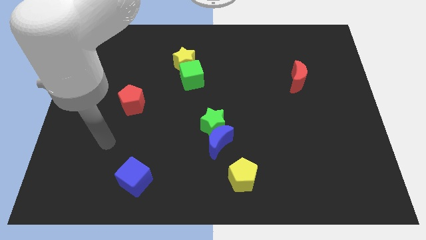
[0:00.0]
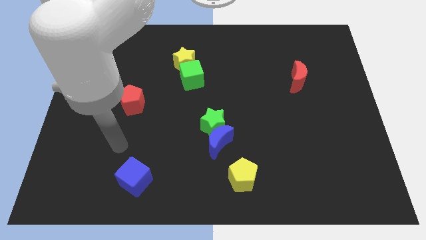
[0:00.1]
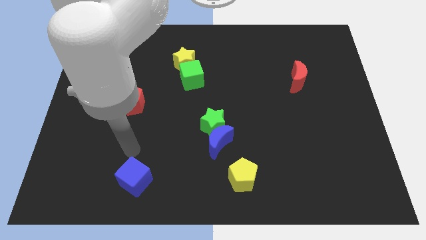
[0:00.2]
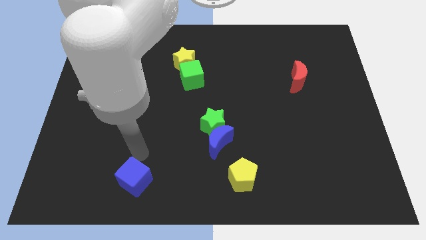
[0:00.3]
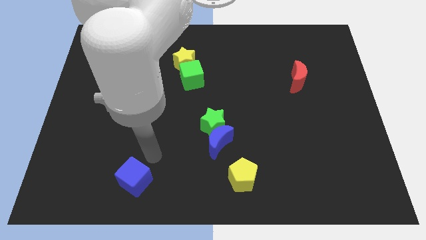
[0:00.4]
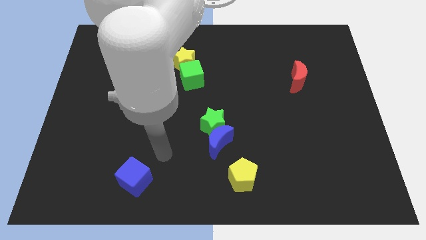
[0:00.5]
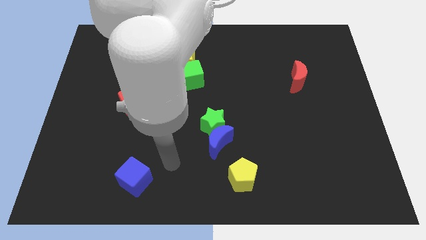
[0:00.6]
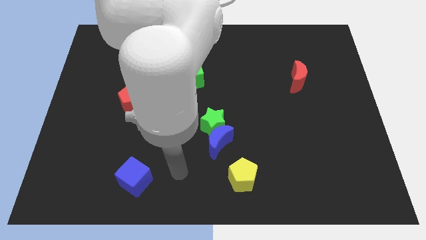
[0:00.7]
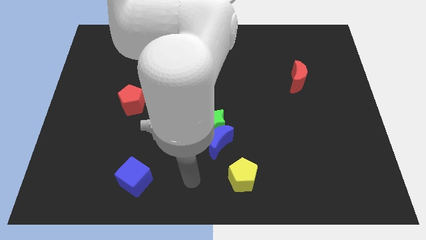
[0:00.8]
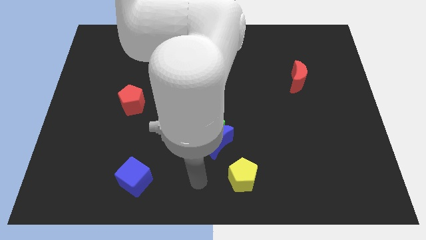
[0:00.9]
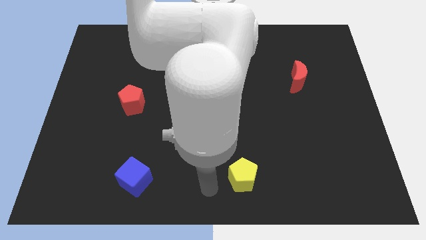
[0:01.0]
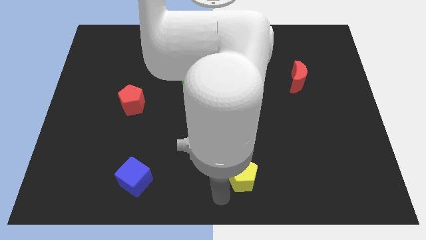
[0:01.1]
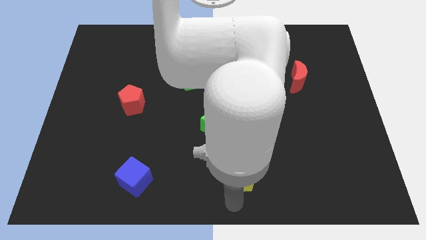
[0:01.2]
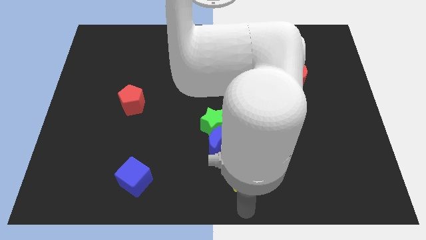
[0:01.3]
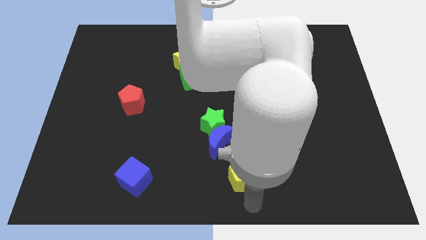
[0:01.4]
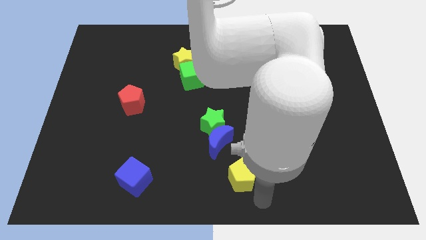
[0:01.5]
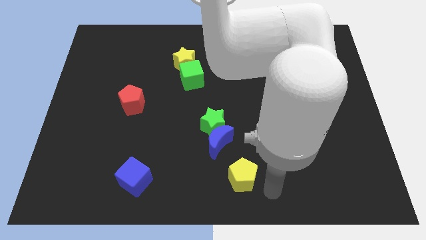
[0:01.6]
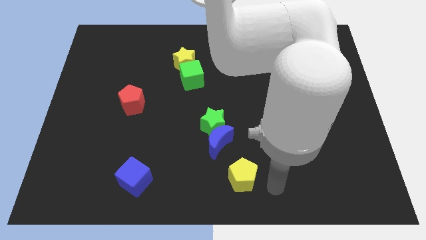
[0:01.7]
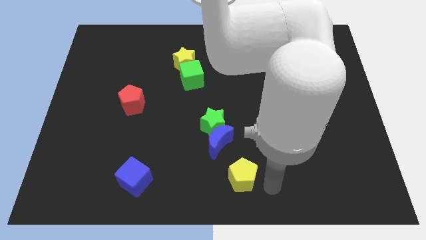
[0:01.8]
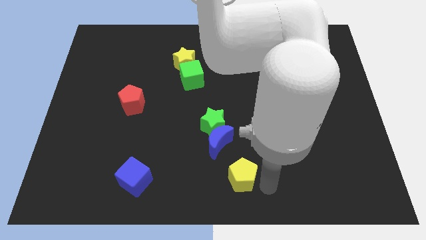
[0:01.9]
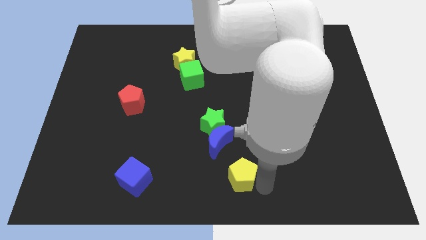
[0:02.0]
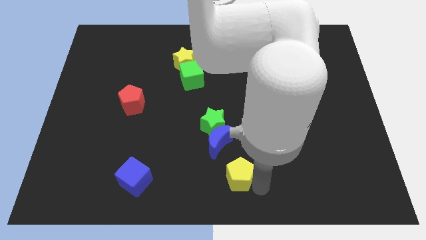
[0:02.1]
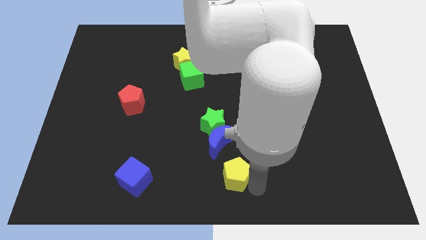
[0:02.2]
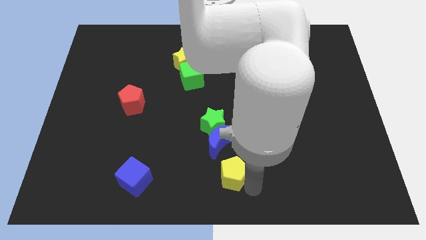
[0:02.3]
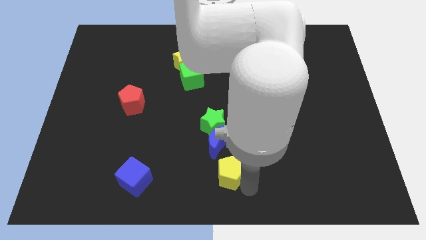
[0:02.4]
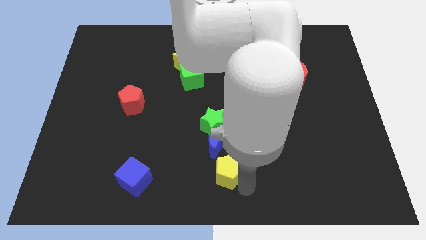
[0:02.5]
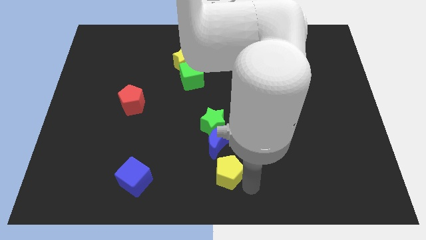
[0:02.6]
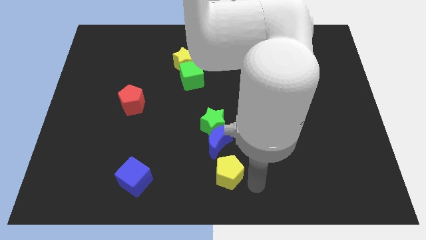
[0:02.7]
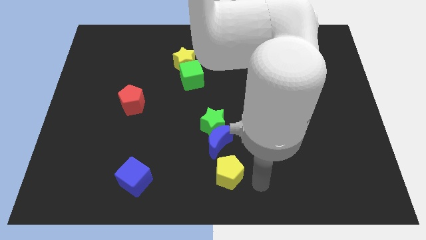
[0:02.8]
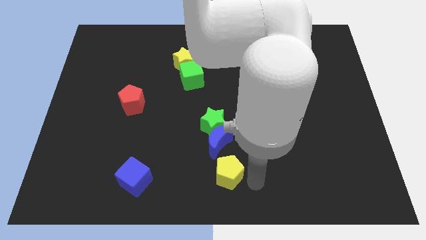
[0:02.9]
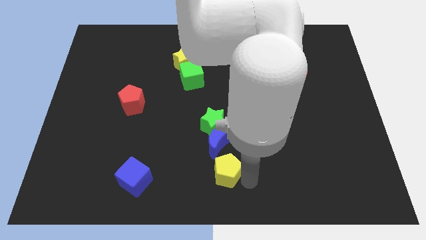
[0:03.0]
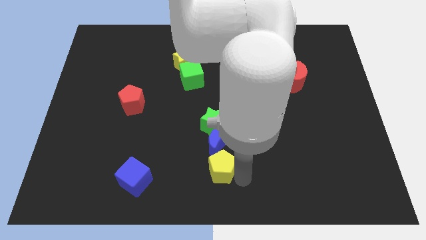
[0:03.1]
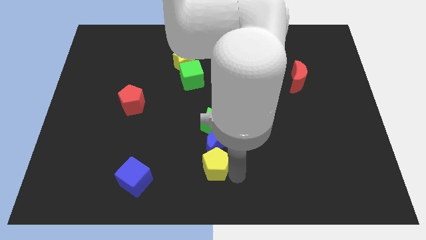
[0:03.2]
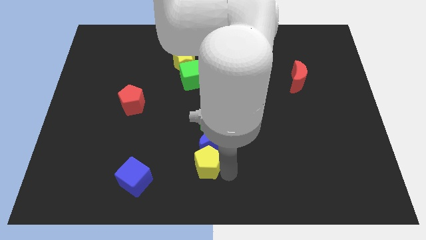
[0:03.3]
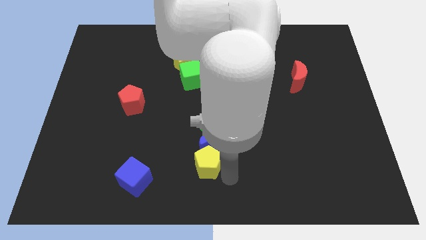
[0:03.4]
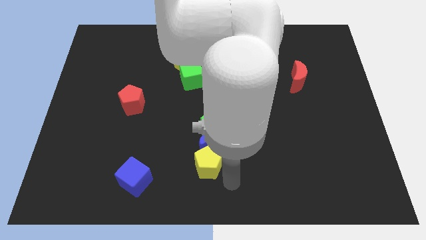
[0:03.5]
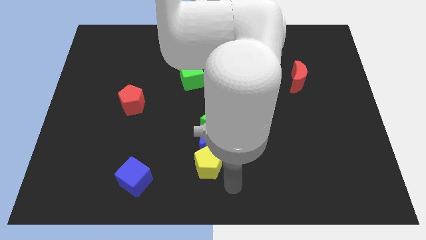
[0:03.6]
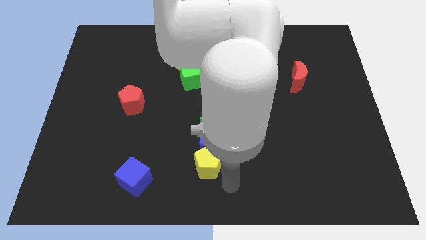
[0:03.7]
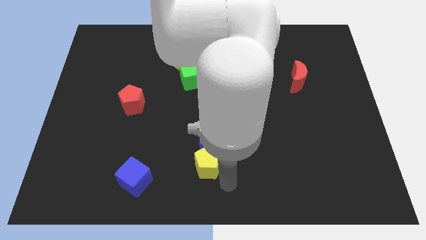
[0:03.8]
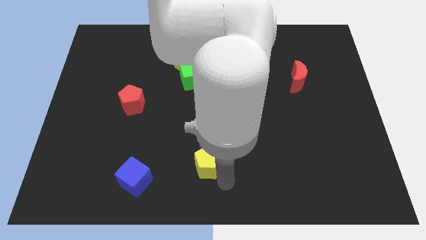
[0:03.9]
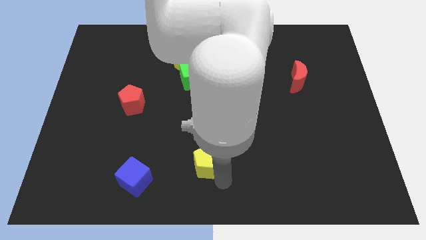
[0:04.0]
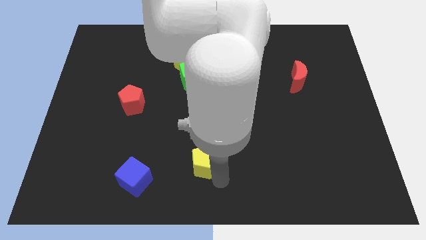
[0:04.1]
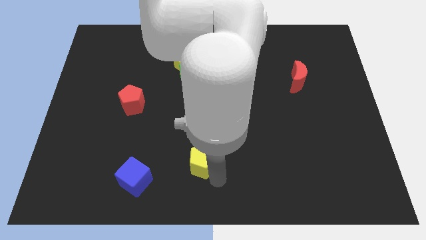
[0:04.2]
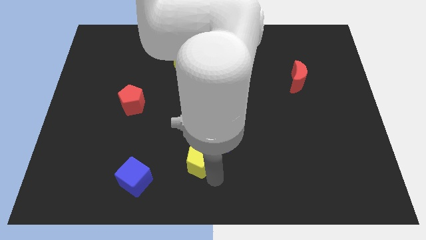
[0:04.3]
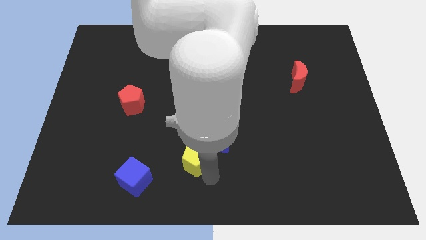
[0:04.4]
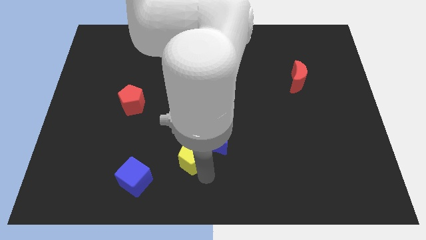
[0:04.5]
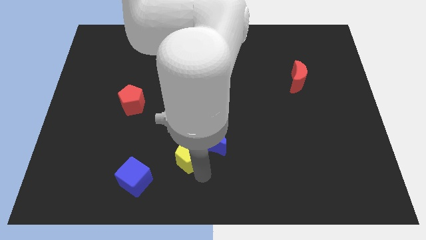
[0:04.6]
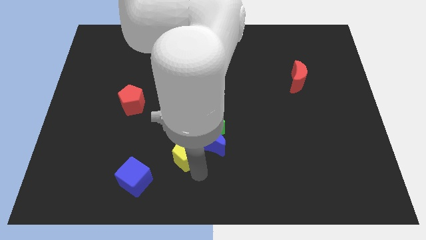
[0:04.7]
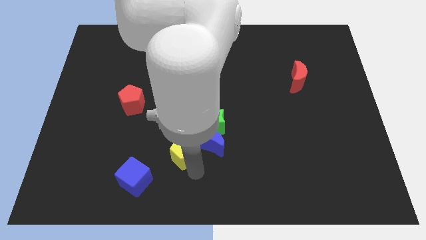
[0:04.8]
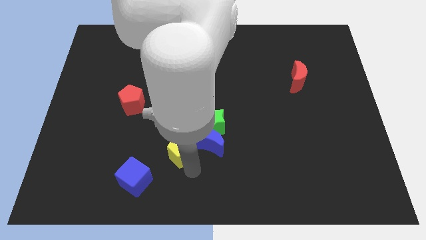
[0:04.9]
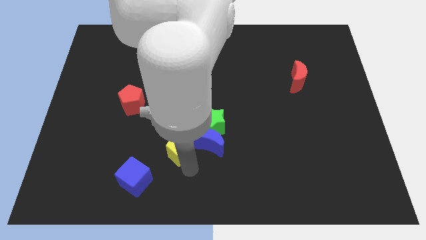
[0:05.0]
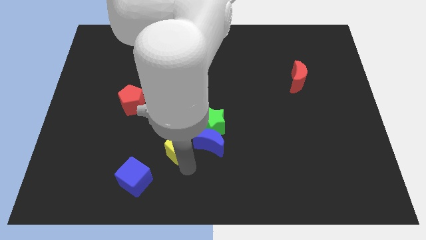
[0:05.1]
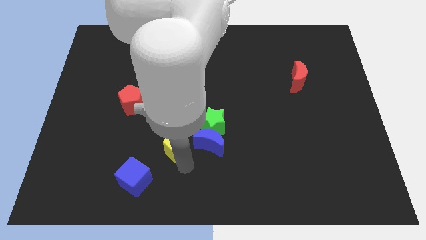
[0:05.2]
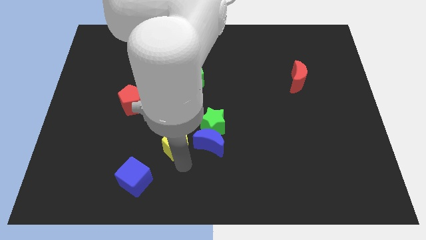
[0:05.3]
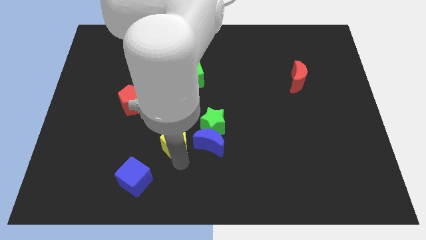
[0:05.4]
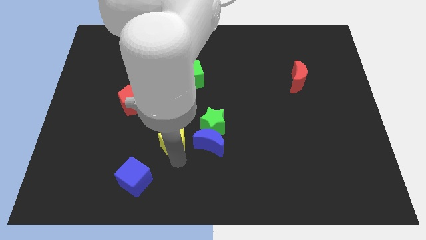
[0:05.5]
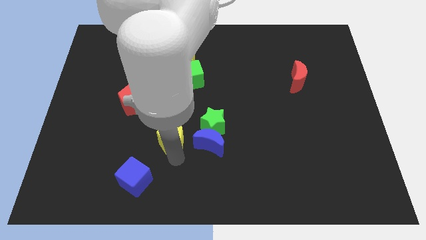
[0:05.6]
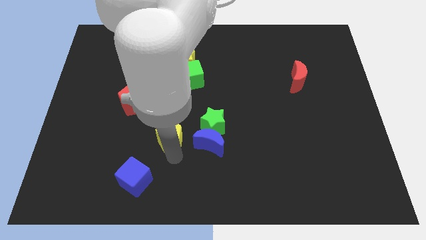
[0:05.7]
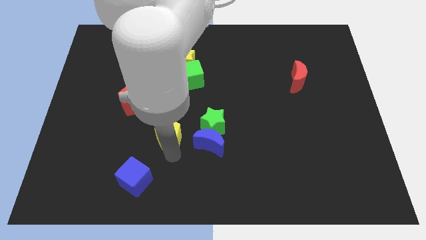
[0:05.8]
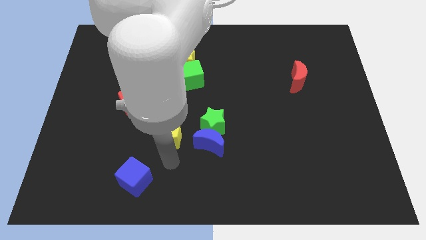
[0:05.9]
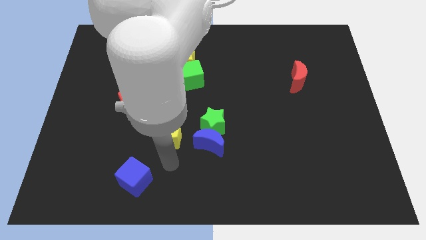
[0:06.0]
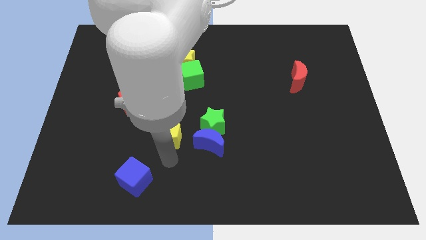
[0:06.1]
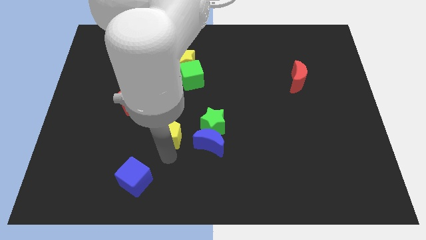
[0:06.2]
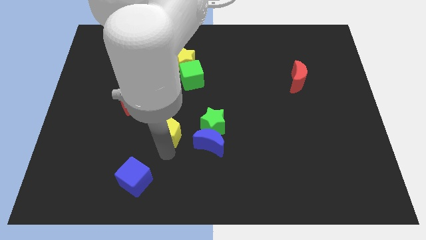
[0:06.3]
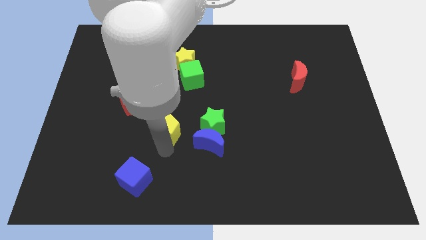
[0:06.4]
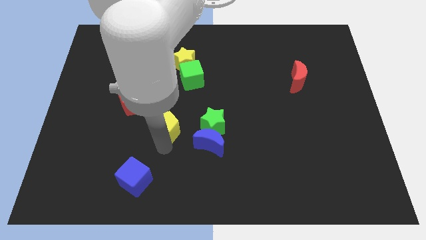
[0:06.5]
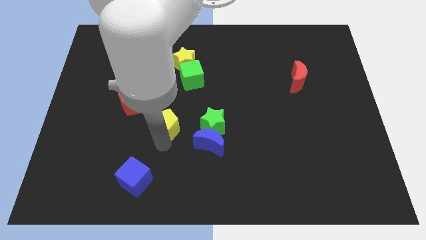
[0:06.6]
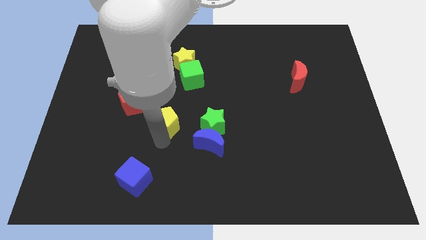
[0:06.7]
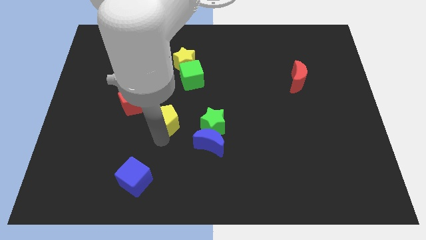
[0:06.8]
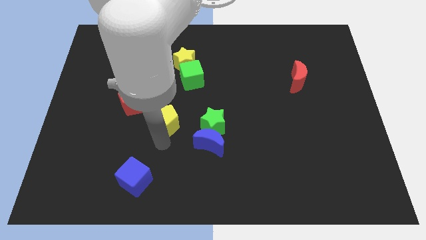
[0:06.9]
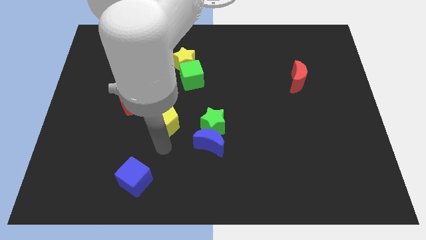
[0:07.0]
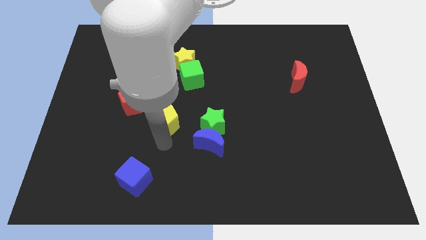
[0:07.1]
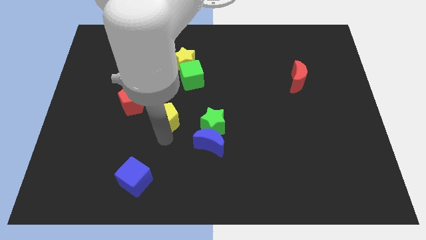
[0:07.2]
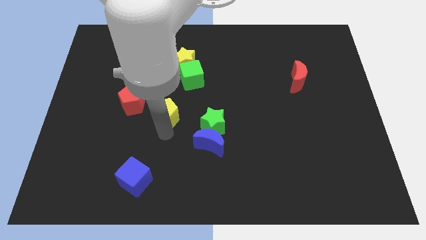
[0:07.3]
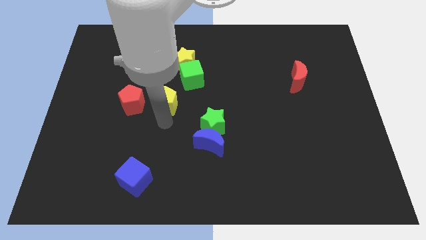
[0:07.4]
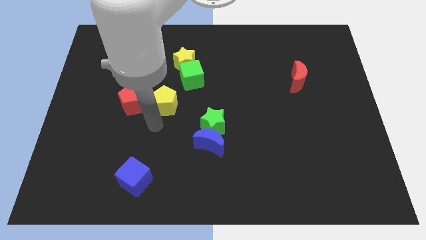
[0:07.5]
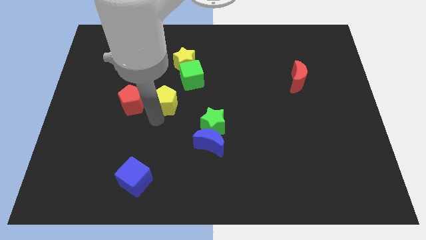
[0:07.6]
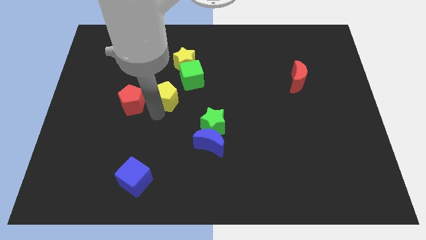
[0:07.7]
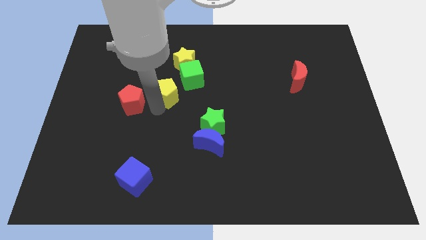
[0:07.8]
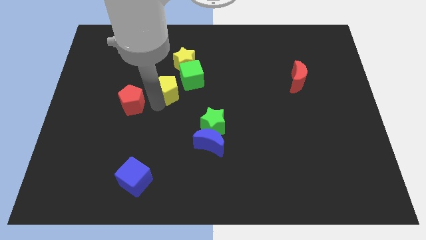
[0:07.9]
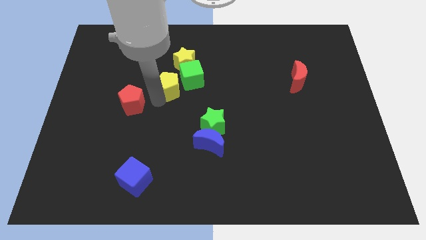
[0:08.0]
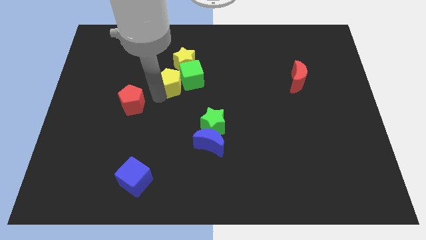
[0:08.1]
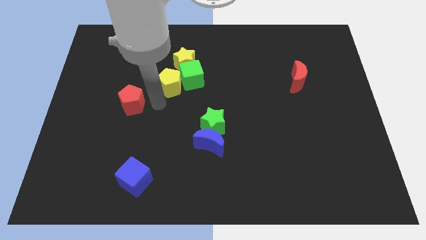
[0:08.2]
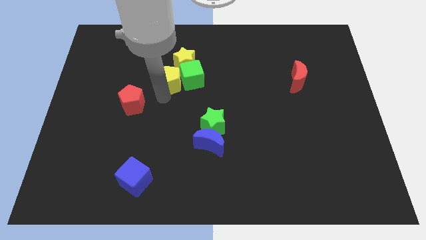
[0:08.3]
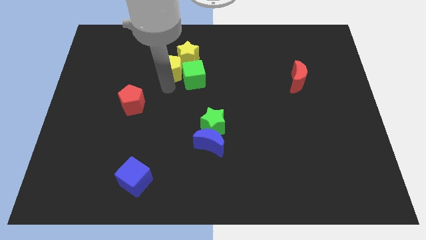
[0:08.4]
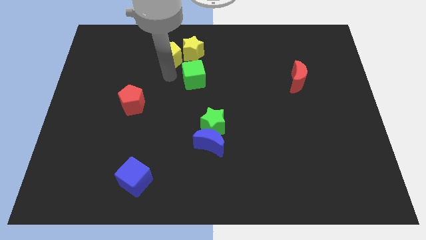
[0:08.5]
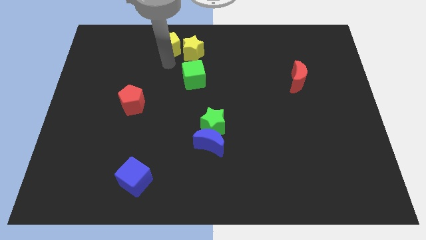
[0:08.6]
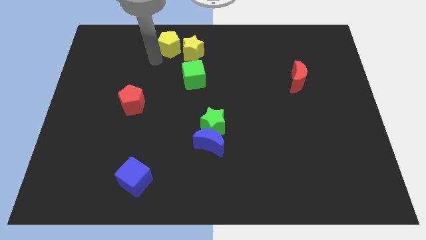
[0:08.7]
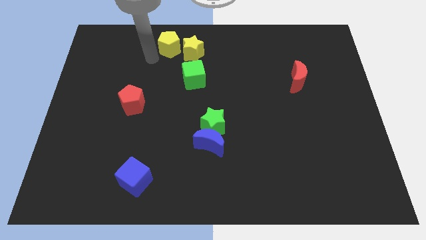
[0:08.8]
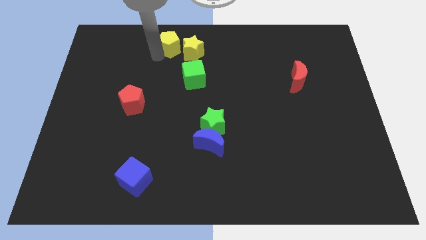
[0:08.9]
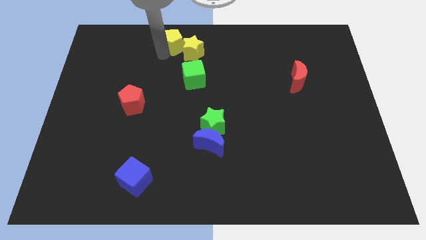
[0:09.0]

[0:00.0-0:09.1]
slide the yellow pentagon to the top side
